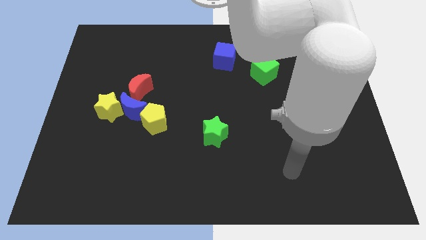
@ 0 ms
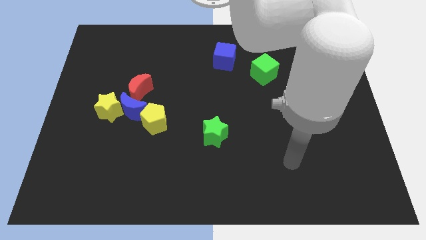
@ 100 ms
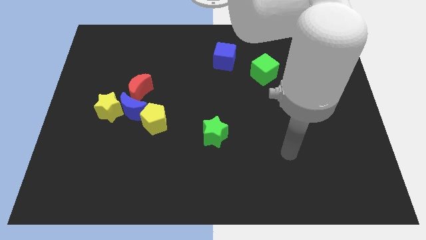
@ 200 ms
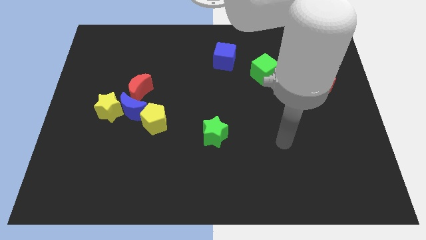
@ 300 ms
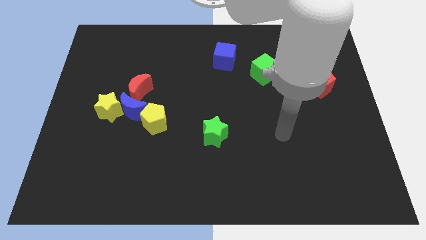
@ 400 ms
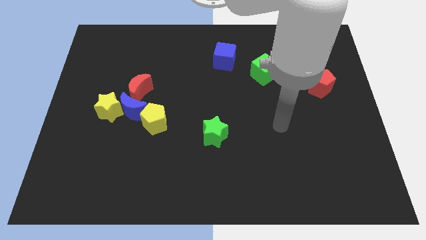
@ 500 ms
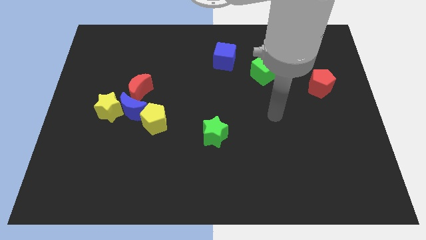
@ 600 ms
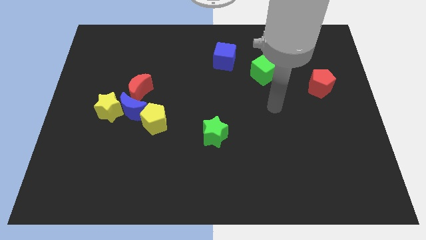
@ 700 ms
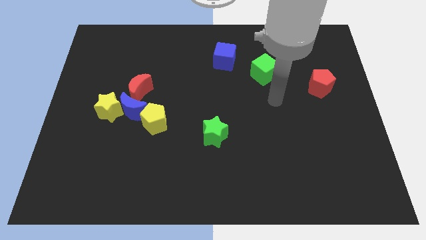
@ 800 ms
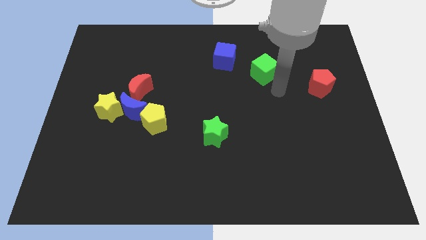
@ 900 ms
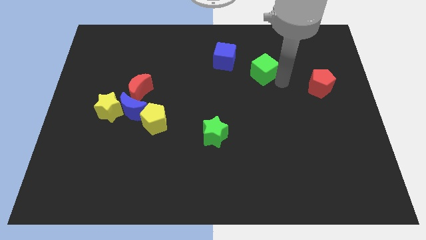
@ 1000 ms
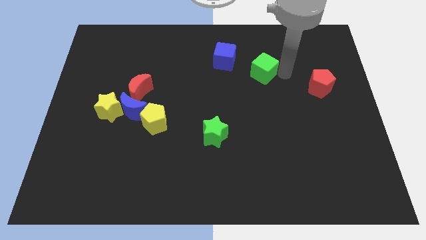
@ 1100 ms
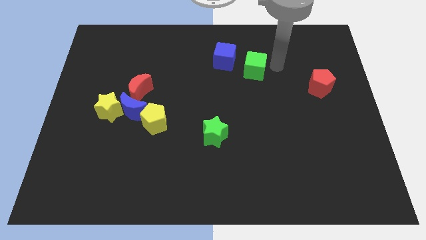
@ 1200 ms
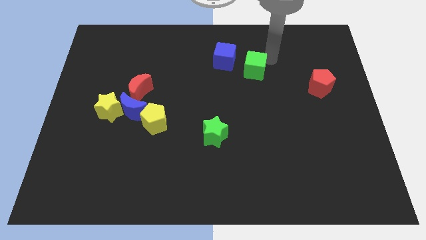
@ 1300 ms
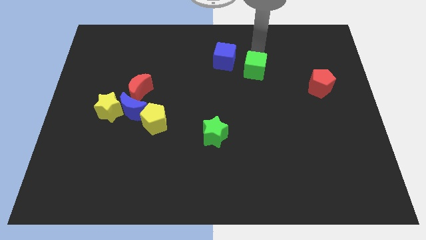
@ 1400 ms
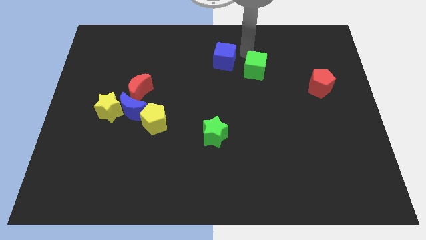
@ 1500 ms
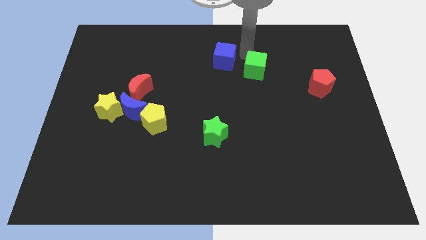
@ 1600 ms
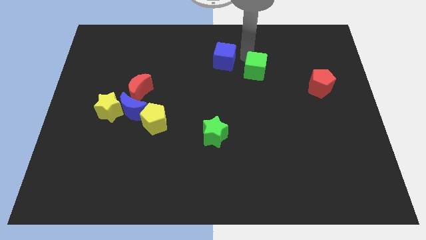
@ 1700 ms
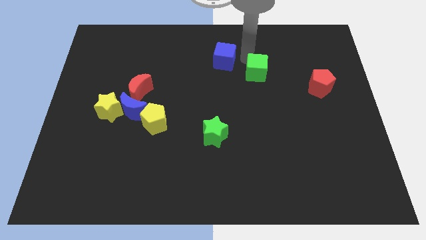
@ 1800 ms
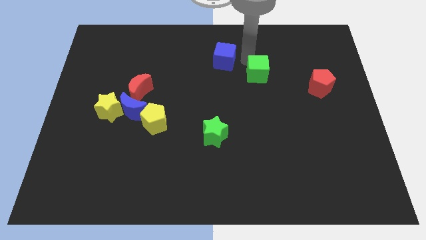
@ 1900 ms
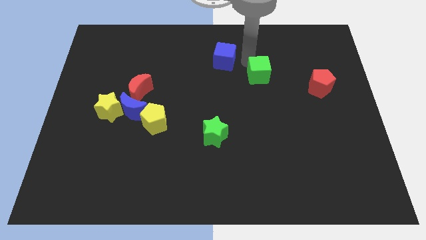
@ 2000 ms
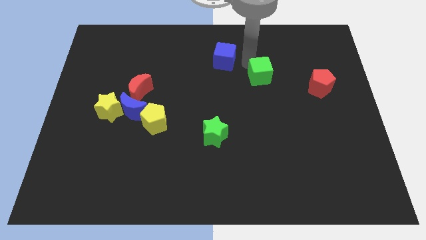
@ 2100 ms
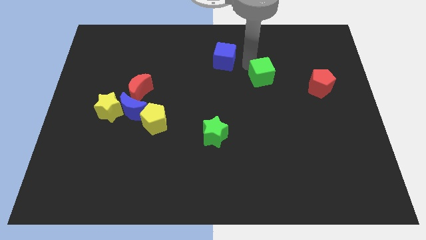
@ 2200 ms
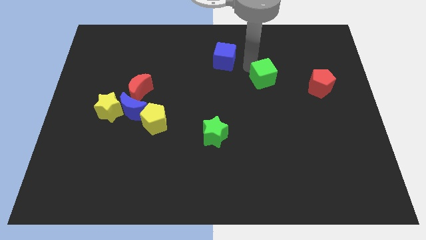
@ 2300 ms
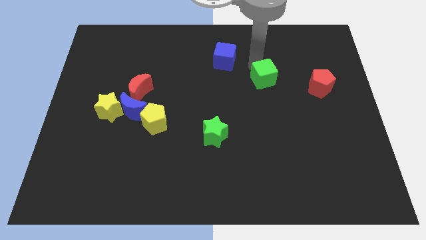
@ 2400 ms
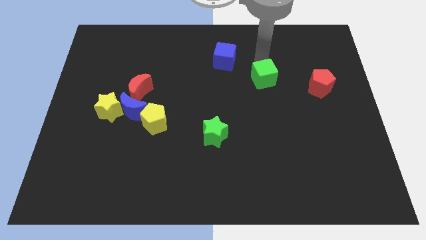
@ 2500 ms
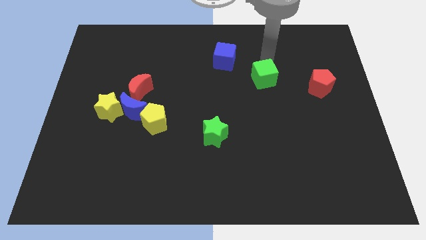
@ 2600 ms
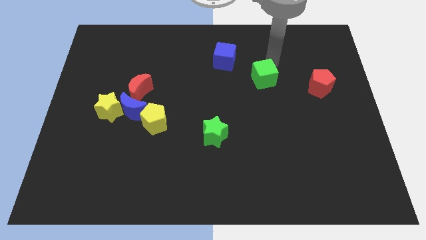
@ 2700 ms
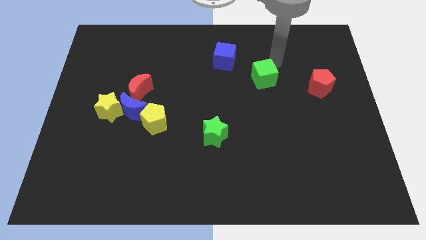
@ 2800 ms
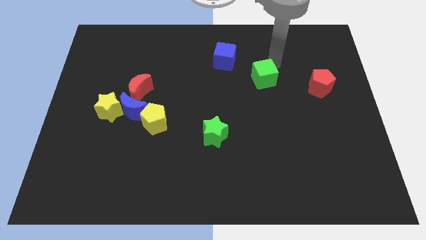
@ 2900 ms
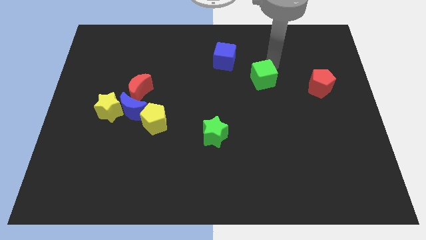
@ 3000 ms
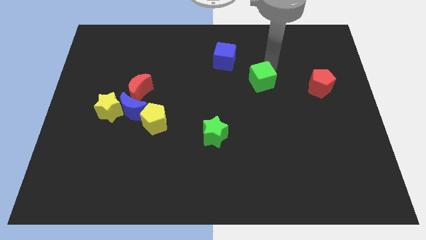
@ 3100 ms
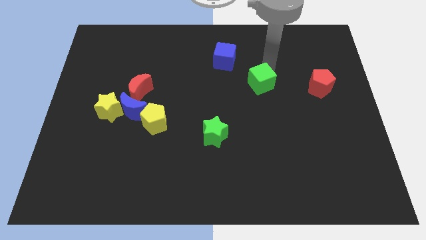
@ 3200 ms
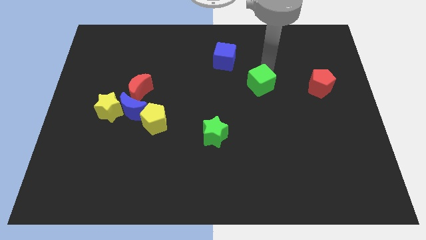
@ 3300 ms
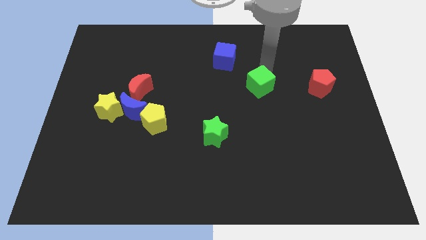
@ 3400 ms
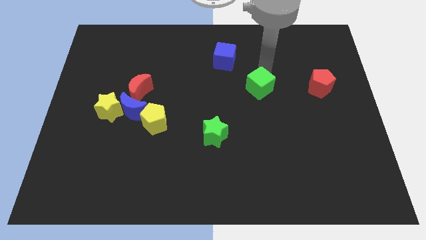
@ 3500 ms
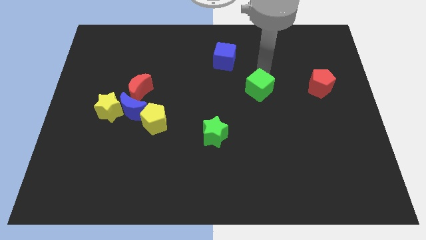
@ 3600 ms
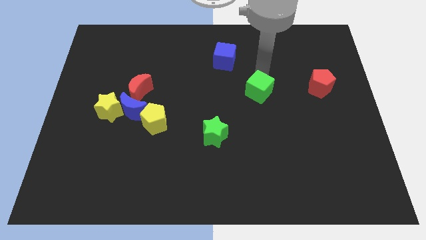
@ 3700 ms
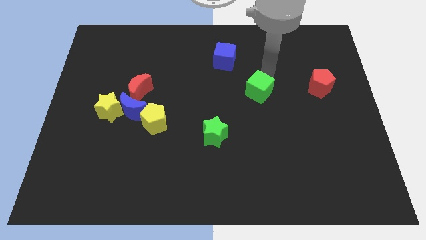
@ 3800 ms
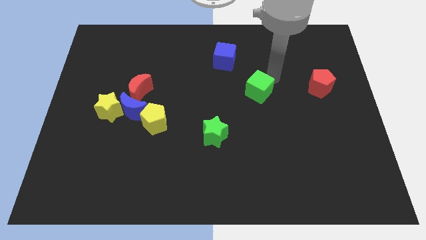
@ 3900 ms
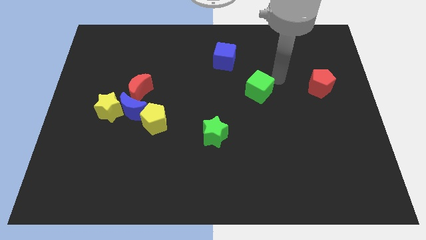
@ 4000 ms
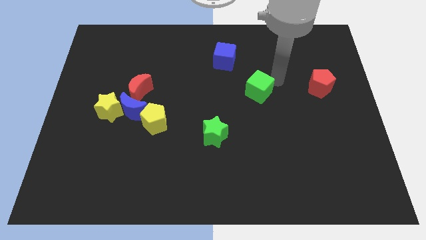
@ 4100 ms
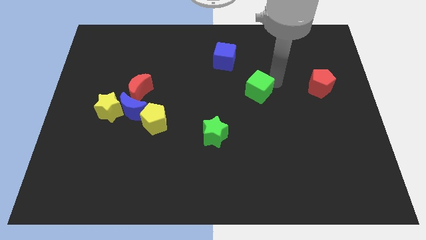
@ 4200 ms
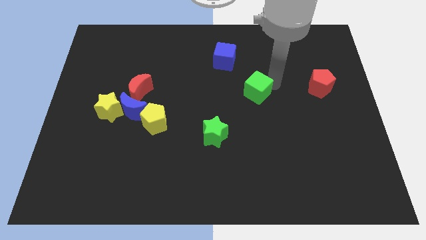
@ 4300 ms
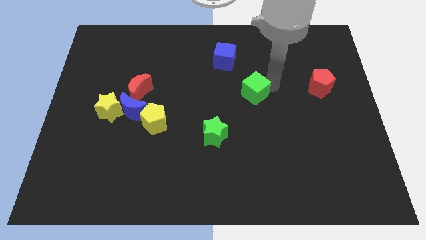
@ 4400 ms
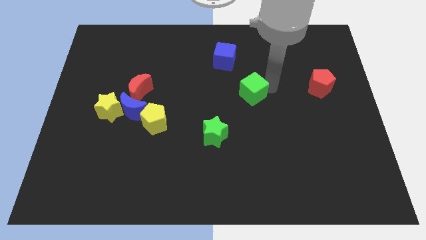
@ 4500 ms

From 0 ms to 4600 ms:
slightly slide the green cube down and then to the left

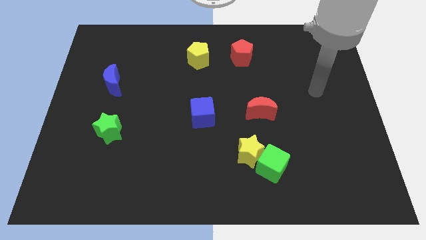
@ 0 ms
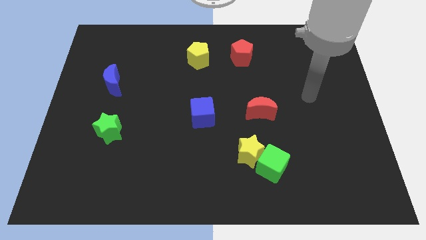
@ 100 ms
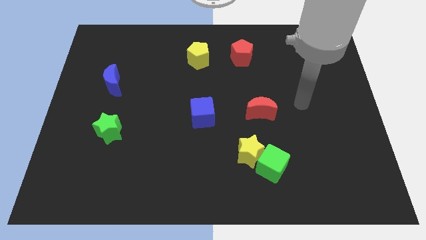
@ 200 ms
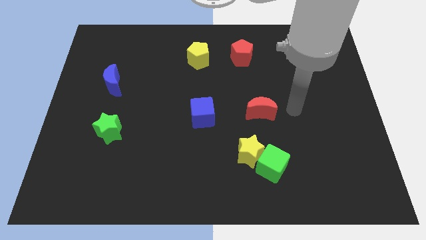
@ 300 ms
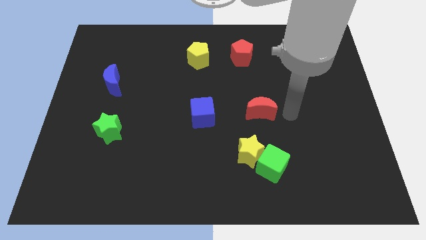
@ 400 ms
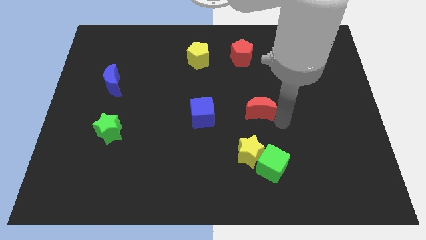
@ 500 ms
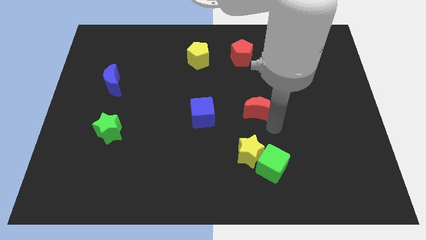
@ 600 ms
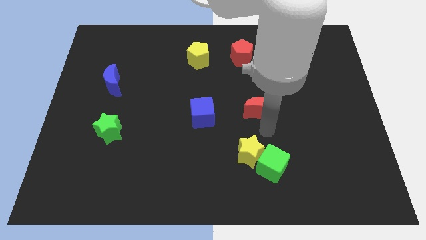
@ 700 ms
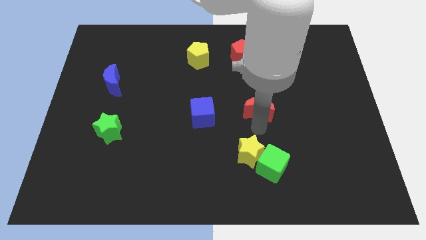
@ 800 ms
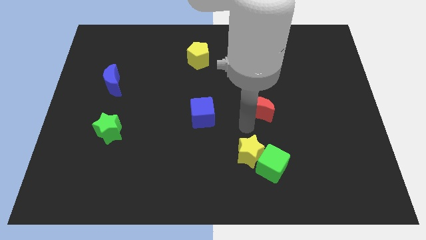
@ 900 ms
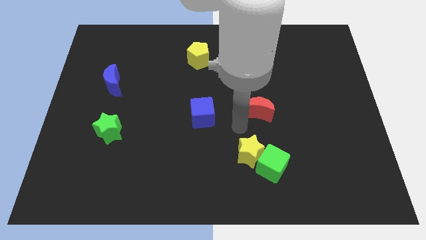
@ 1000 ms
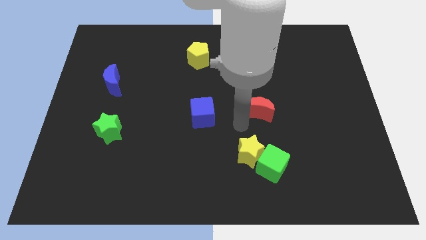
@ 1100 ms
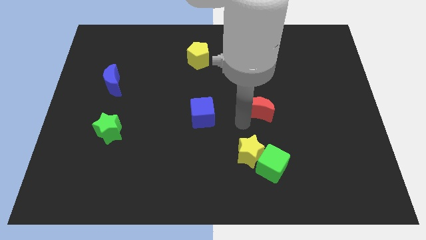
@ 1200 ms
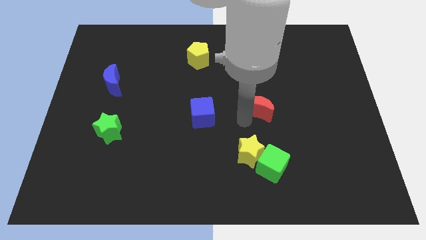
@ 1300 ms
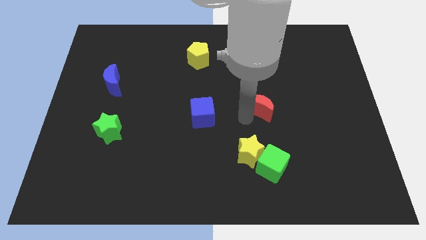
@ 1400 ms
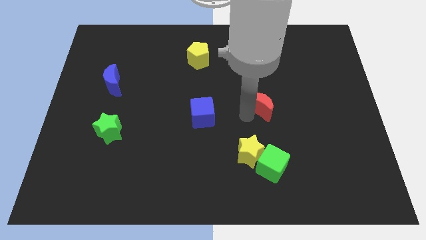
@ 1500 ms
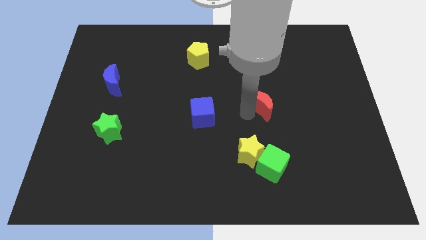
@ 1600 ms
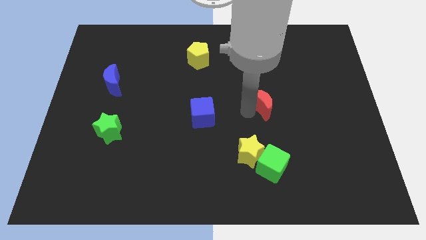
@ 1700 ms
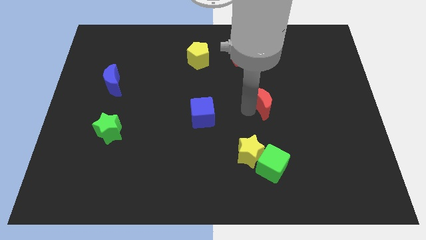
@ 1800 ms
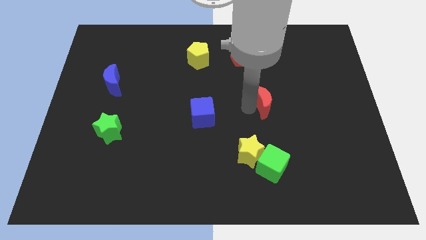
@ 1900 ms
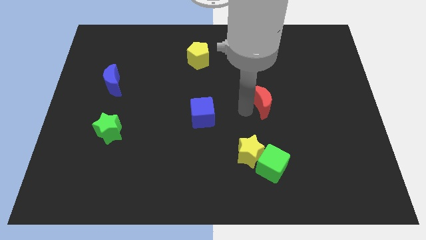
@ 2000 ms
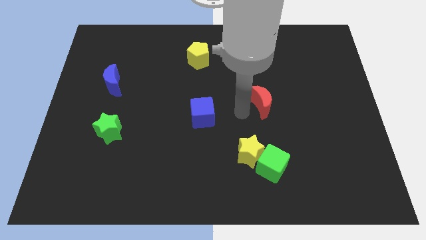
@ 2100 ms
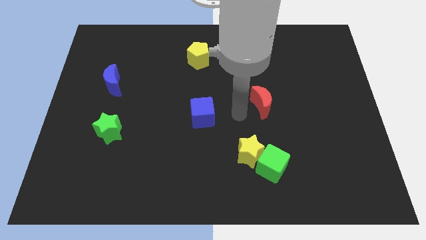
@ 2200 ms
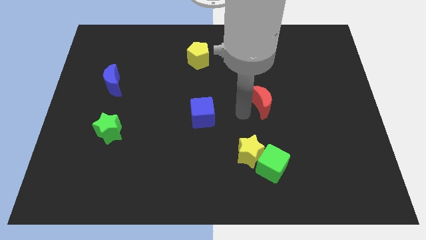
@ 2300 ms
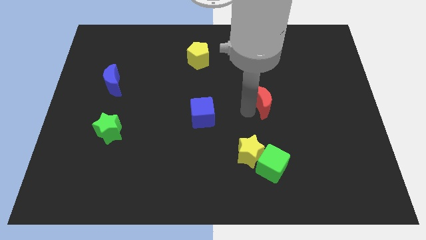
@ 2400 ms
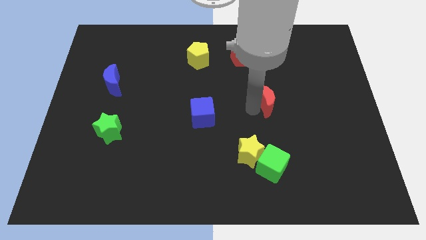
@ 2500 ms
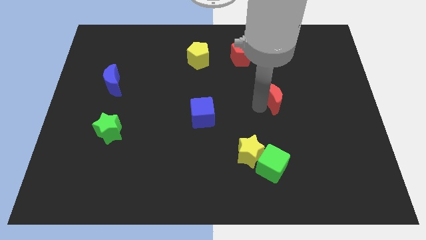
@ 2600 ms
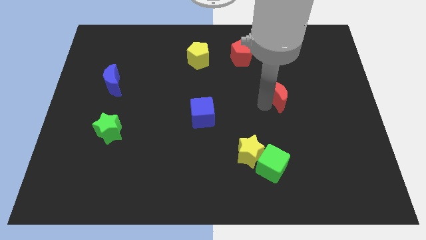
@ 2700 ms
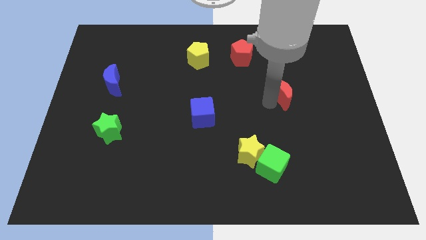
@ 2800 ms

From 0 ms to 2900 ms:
move the red moon a bit diagonally upwards and to the right

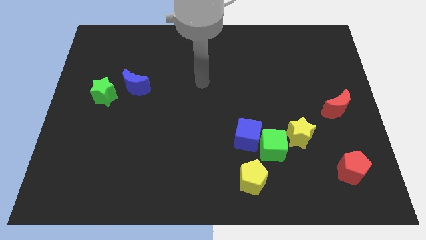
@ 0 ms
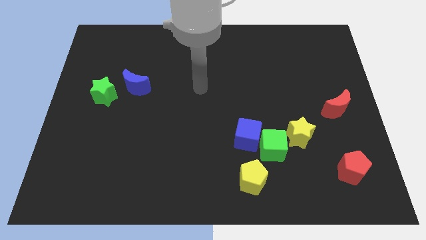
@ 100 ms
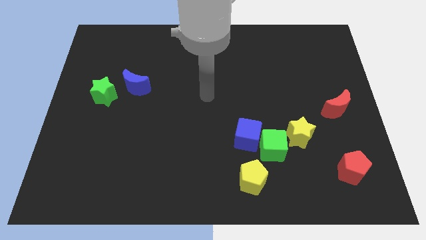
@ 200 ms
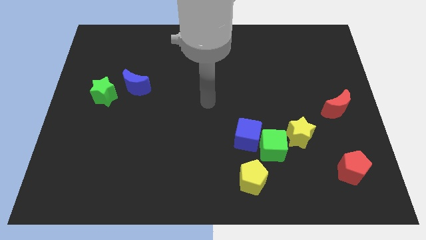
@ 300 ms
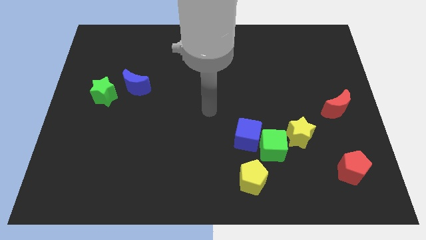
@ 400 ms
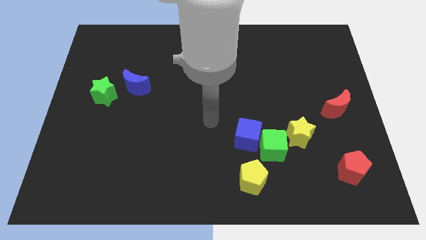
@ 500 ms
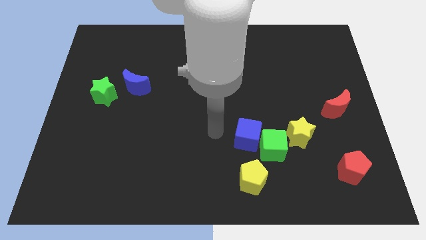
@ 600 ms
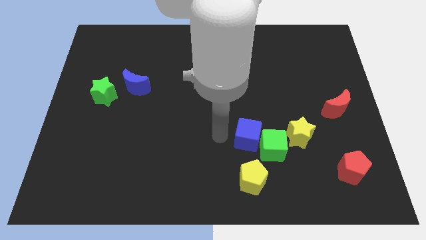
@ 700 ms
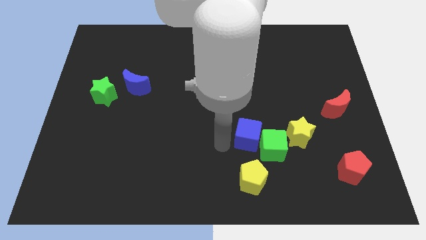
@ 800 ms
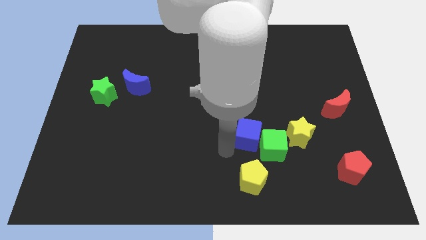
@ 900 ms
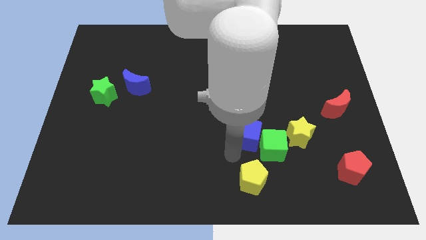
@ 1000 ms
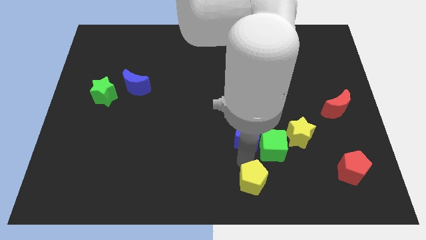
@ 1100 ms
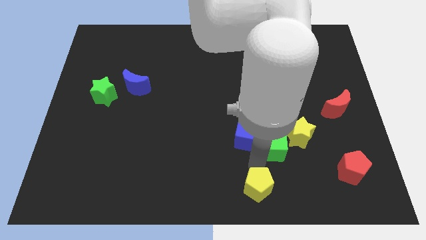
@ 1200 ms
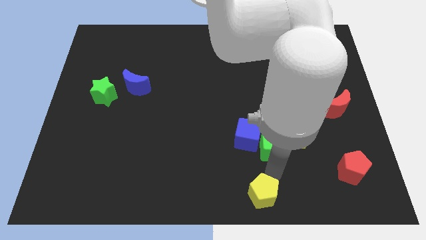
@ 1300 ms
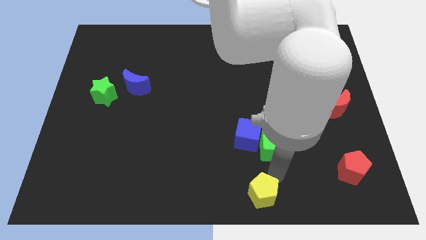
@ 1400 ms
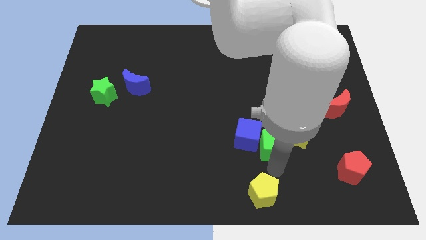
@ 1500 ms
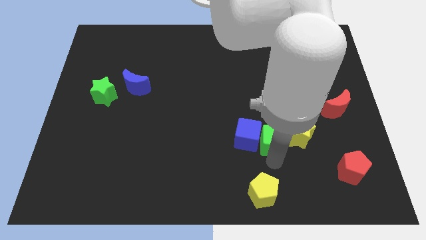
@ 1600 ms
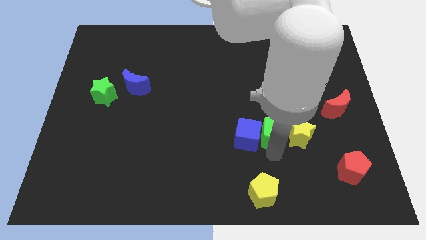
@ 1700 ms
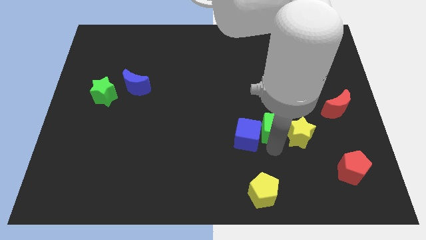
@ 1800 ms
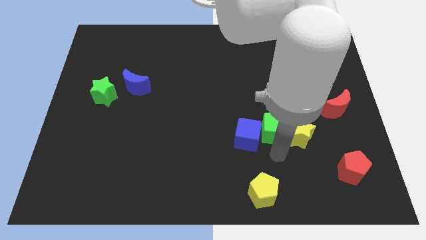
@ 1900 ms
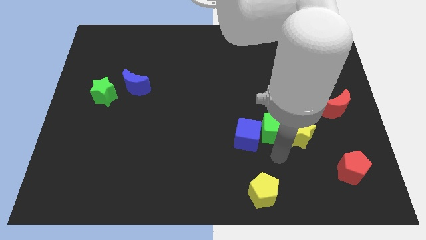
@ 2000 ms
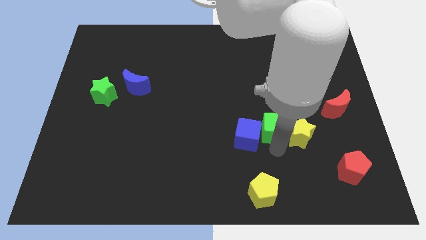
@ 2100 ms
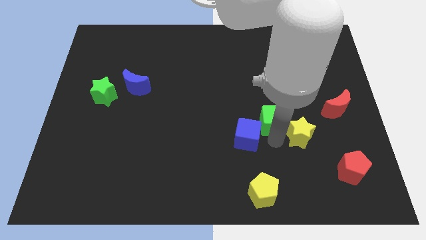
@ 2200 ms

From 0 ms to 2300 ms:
push the green cube a bit upwards
